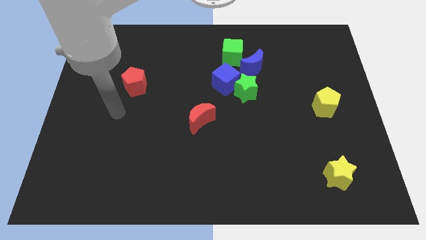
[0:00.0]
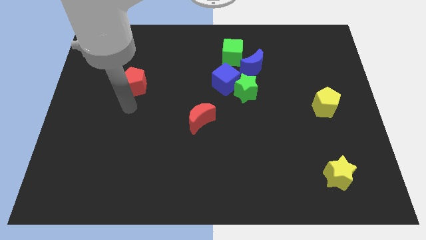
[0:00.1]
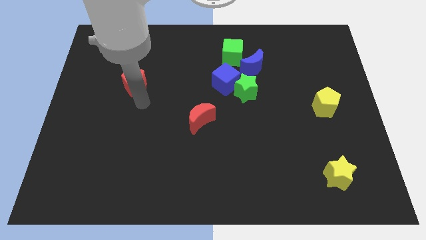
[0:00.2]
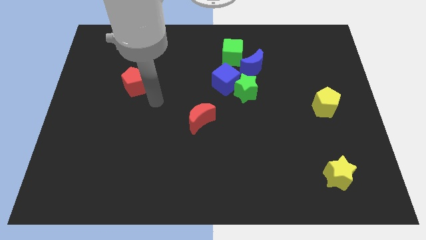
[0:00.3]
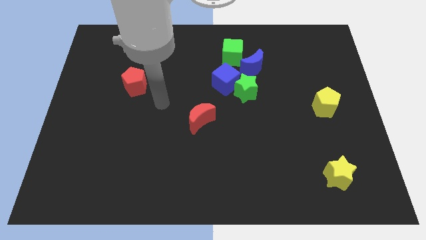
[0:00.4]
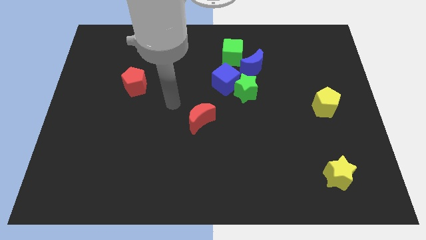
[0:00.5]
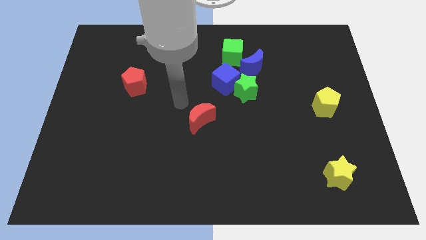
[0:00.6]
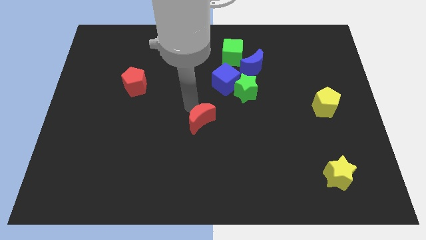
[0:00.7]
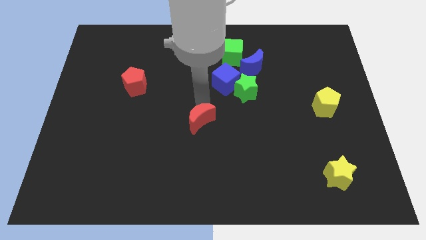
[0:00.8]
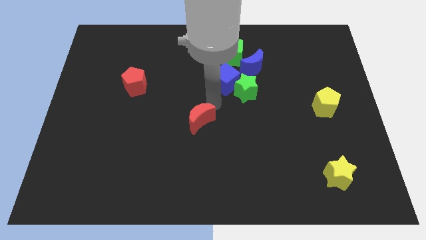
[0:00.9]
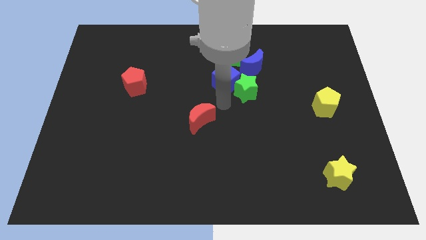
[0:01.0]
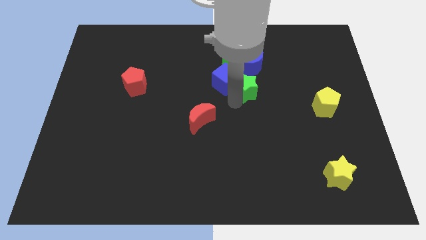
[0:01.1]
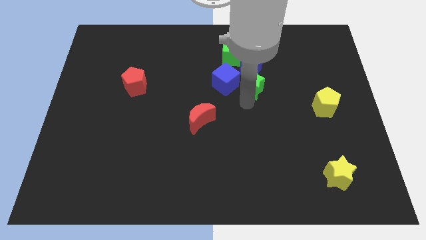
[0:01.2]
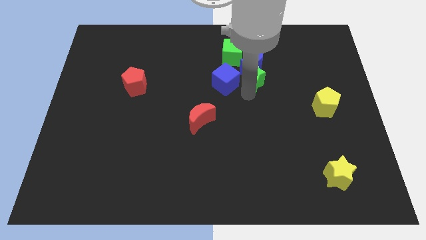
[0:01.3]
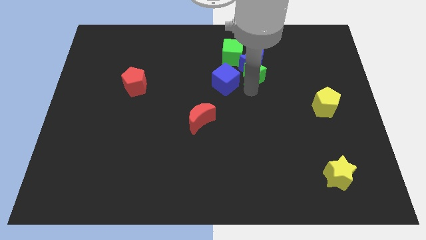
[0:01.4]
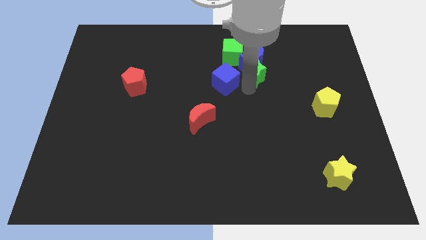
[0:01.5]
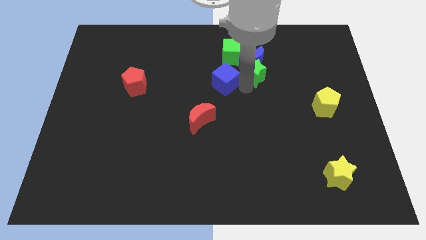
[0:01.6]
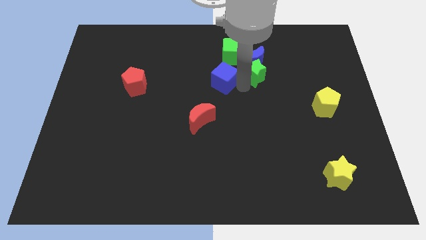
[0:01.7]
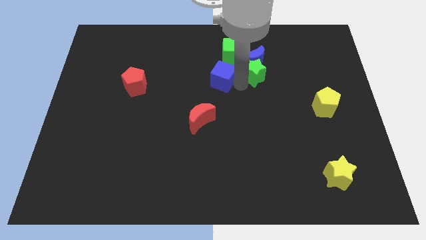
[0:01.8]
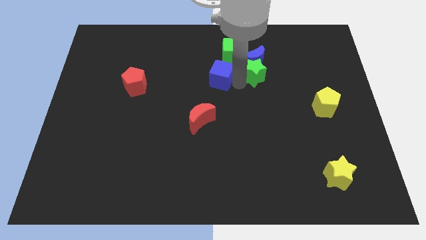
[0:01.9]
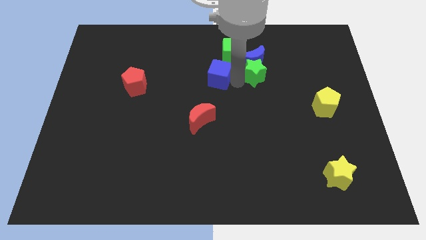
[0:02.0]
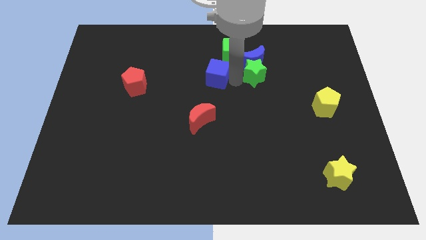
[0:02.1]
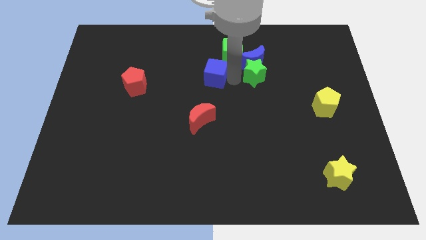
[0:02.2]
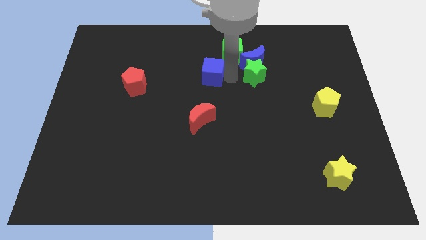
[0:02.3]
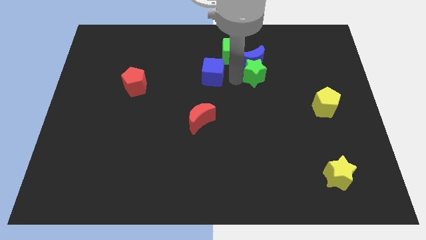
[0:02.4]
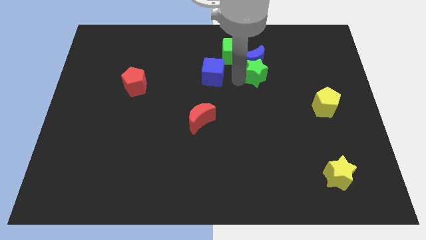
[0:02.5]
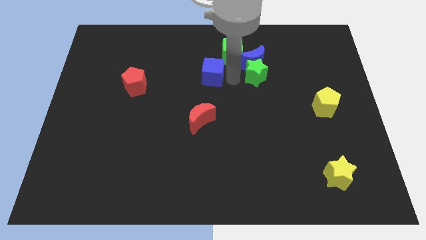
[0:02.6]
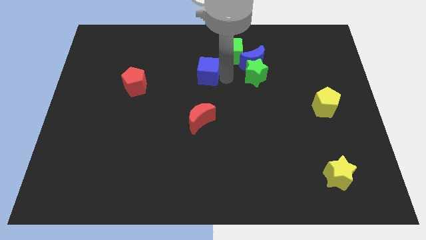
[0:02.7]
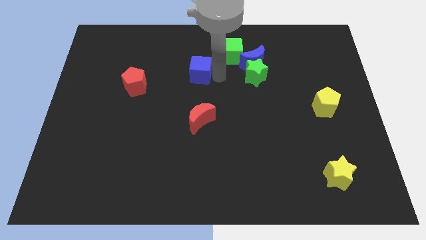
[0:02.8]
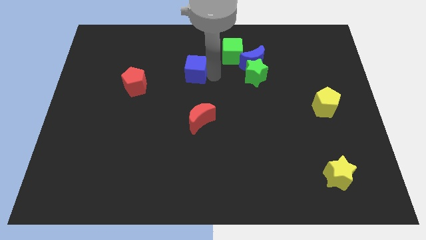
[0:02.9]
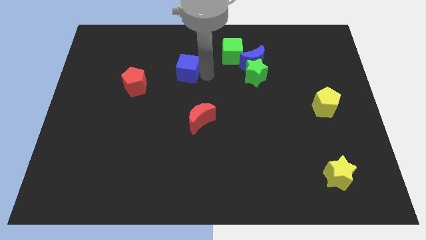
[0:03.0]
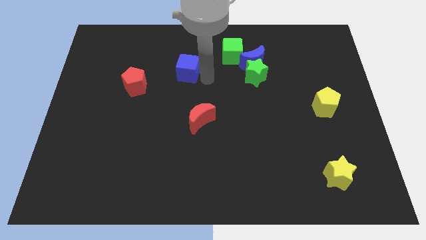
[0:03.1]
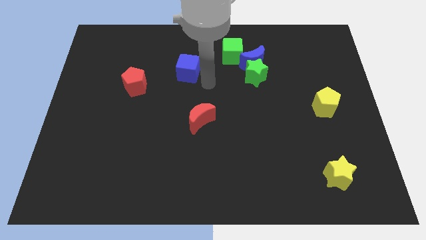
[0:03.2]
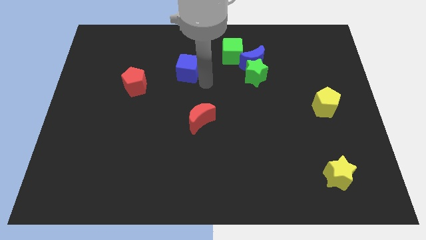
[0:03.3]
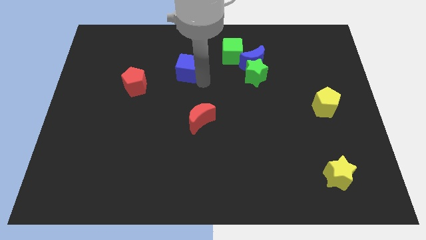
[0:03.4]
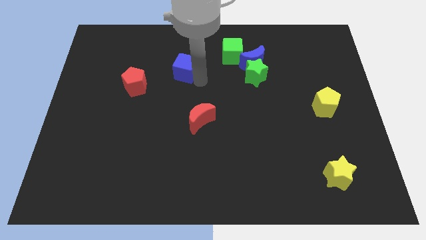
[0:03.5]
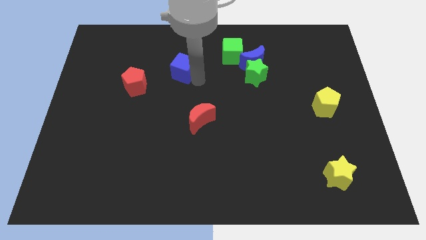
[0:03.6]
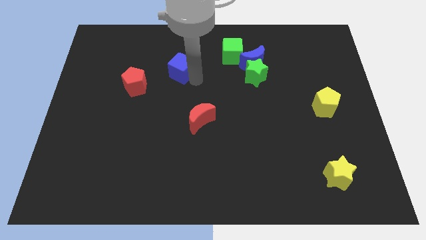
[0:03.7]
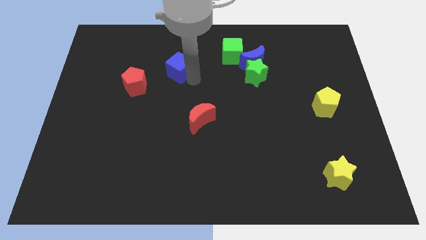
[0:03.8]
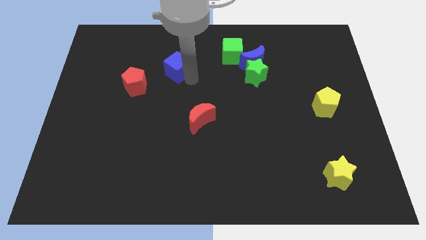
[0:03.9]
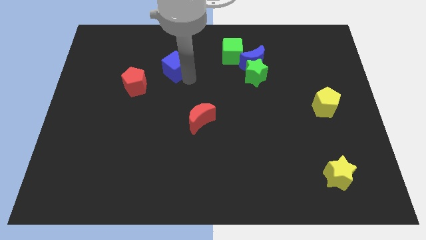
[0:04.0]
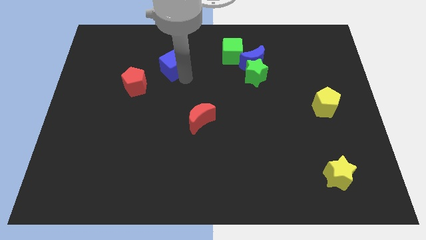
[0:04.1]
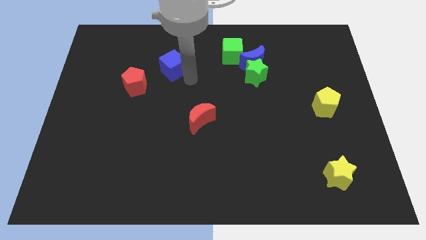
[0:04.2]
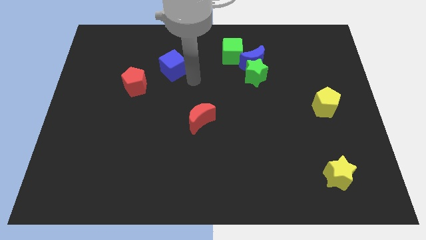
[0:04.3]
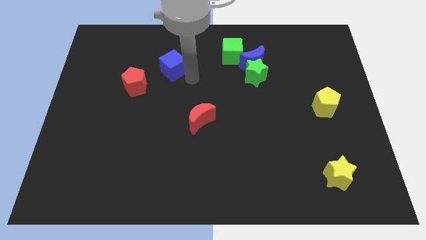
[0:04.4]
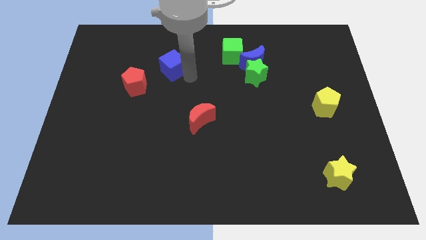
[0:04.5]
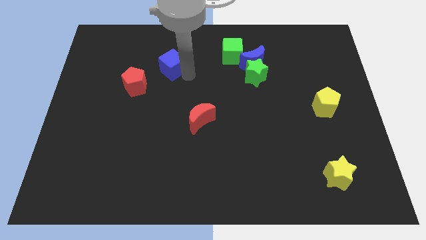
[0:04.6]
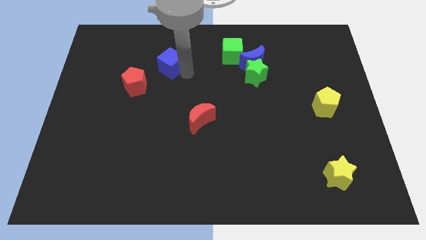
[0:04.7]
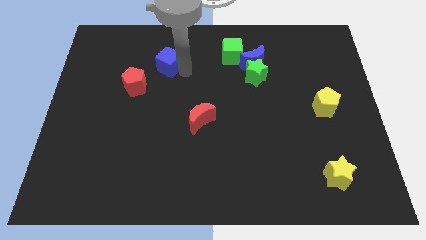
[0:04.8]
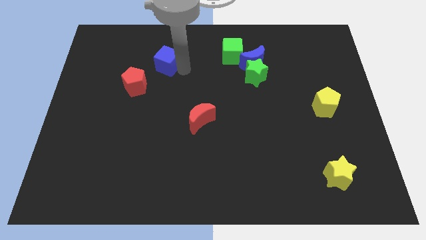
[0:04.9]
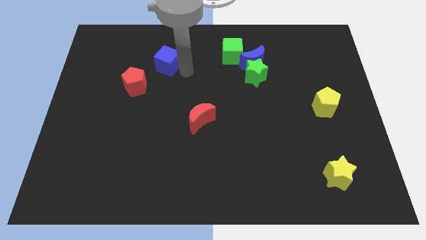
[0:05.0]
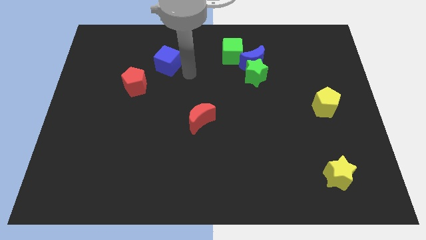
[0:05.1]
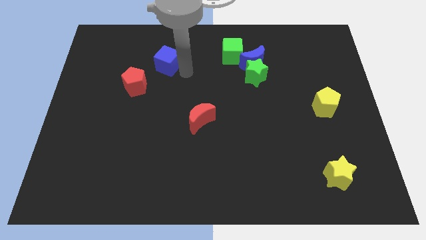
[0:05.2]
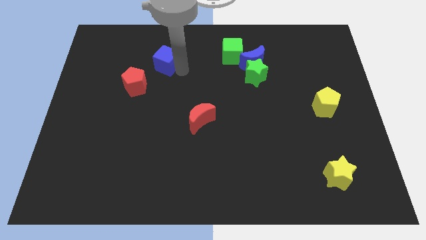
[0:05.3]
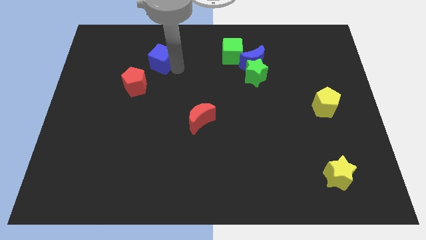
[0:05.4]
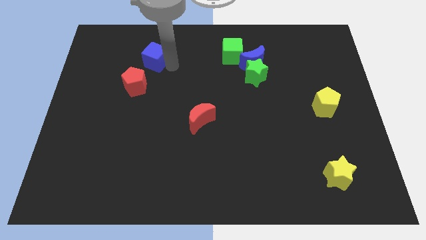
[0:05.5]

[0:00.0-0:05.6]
put the blue cube above the red pentagon

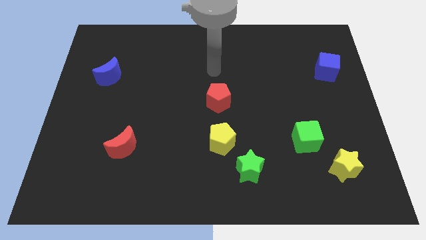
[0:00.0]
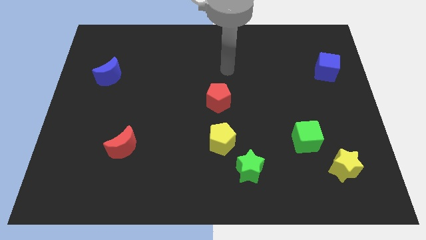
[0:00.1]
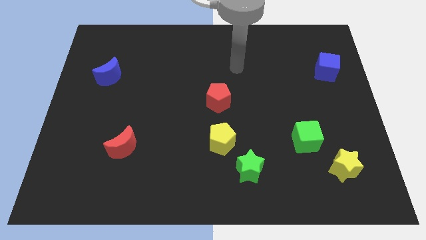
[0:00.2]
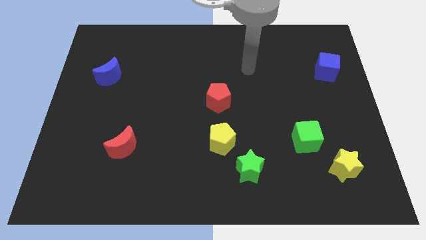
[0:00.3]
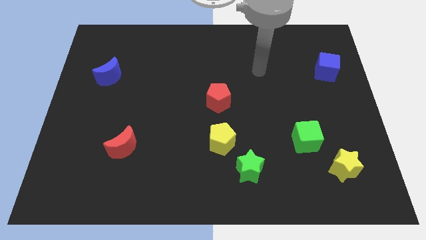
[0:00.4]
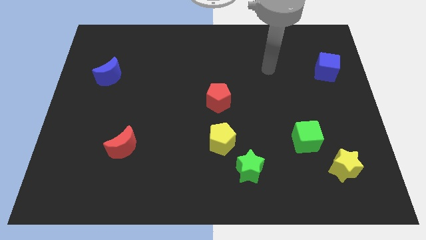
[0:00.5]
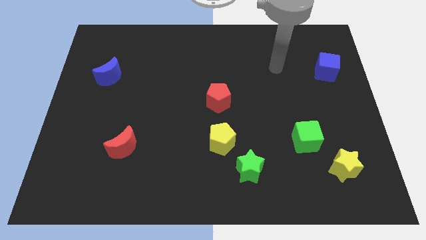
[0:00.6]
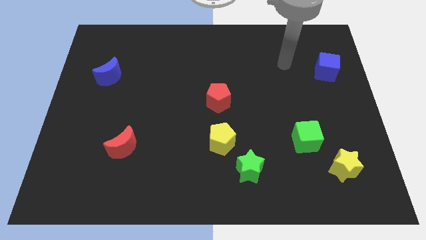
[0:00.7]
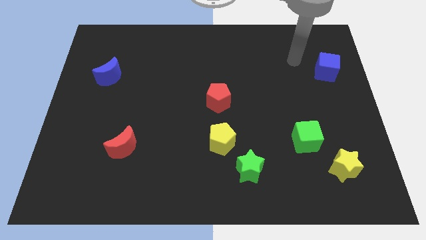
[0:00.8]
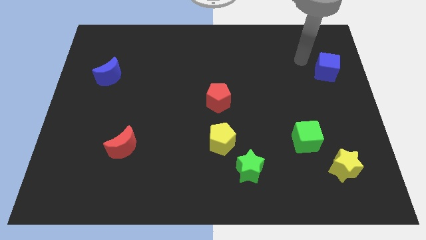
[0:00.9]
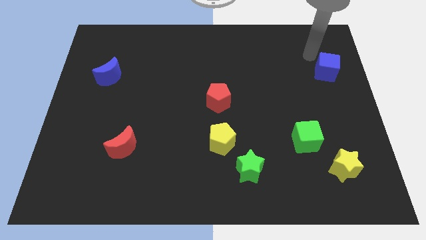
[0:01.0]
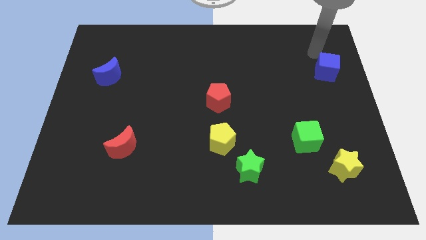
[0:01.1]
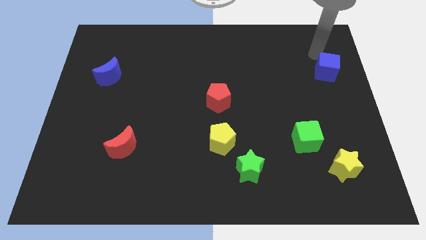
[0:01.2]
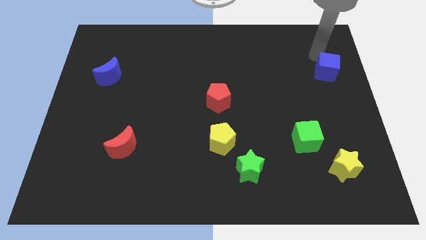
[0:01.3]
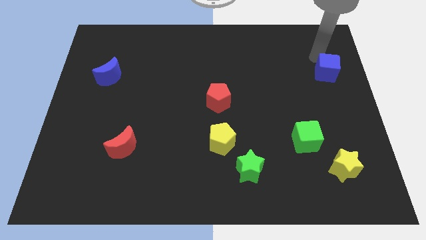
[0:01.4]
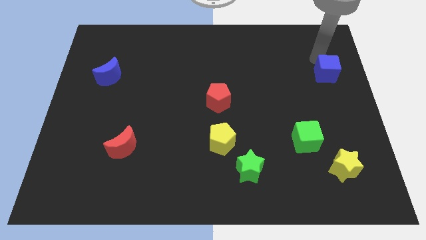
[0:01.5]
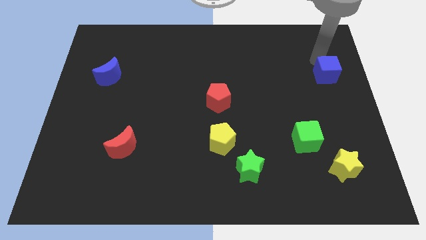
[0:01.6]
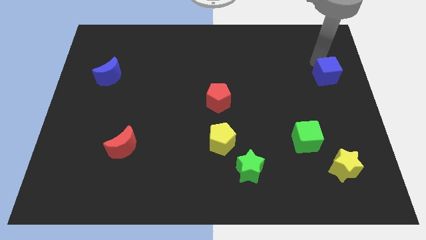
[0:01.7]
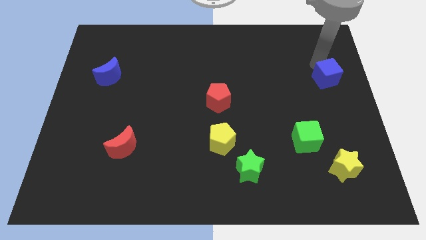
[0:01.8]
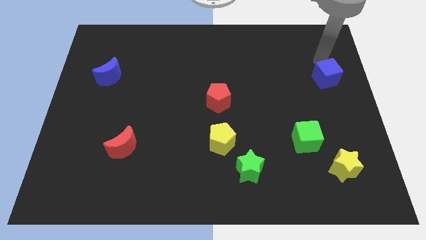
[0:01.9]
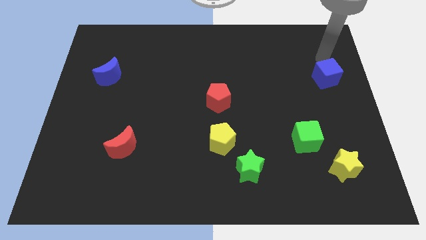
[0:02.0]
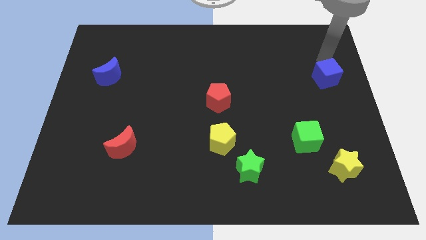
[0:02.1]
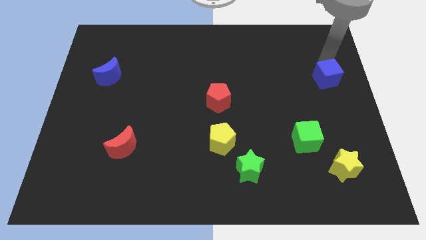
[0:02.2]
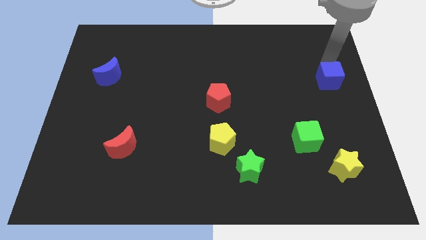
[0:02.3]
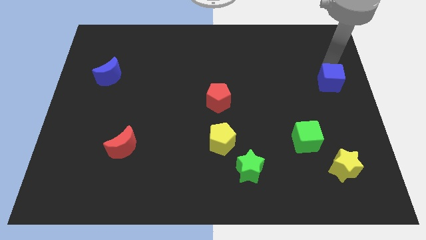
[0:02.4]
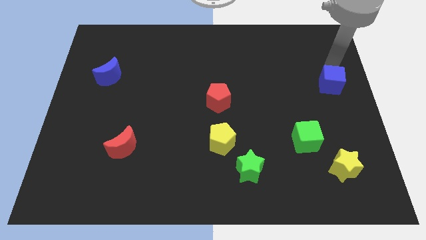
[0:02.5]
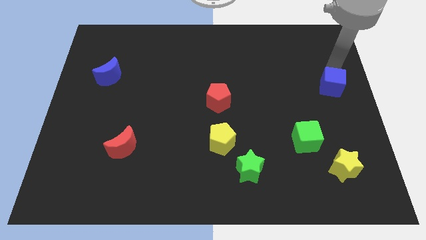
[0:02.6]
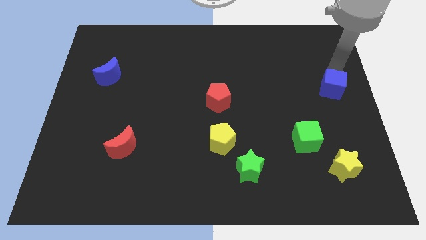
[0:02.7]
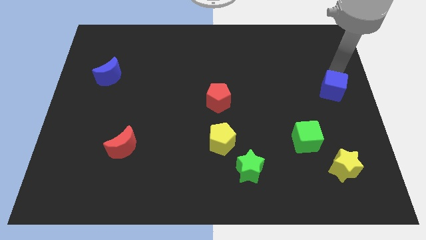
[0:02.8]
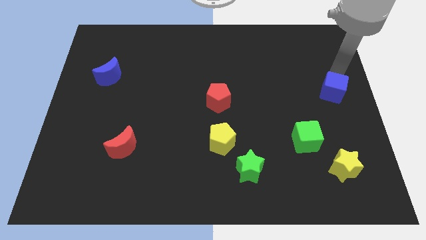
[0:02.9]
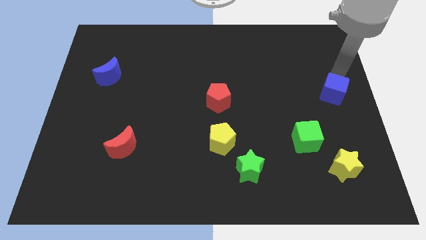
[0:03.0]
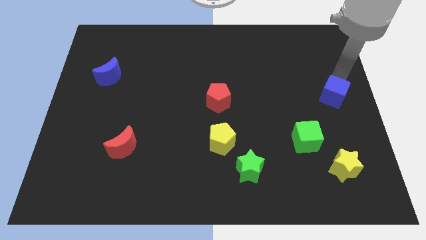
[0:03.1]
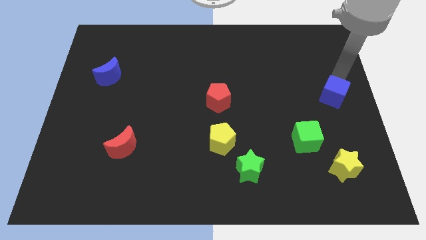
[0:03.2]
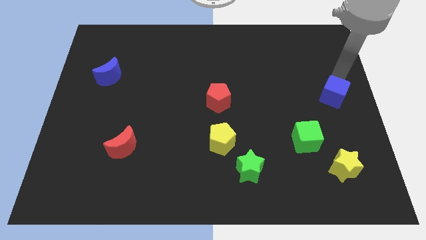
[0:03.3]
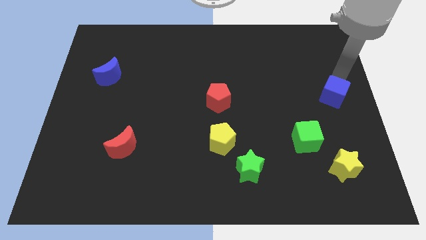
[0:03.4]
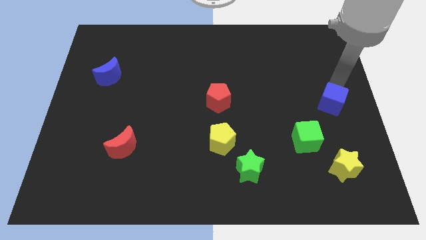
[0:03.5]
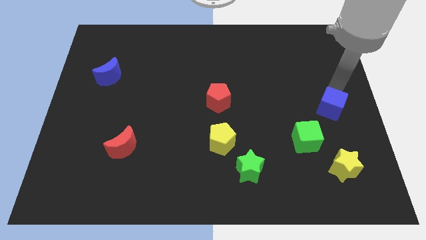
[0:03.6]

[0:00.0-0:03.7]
put the blue cube diagonally up and to the right of the green cube
